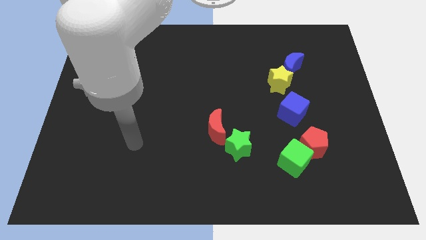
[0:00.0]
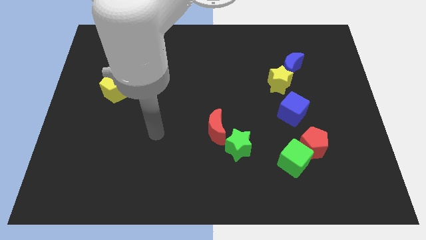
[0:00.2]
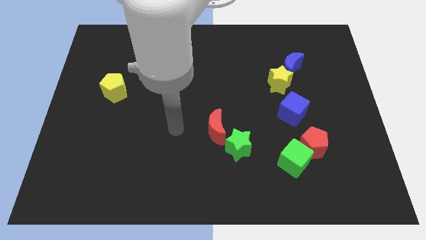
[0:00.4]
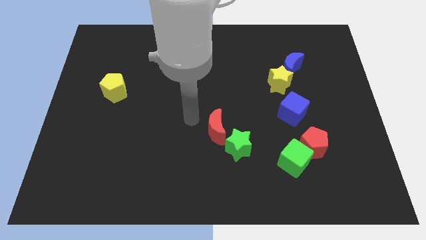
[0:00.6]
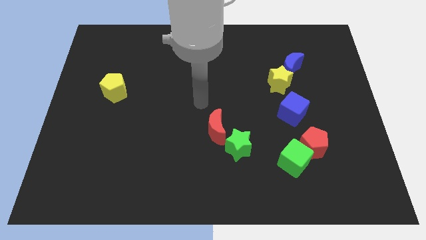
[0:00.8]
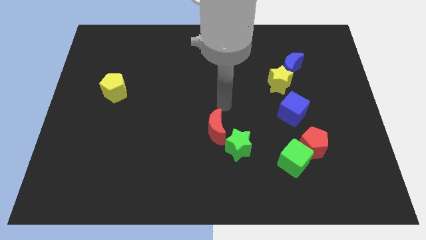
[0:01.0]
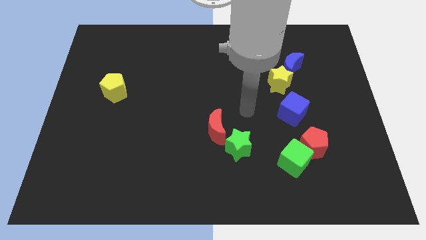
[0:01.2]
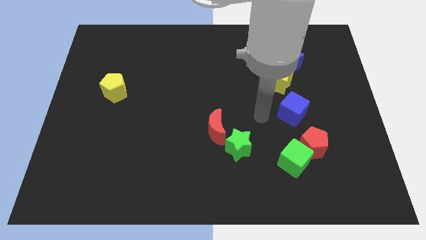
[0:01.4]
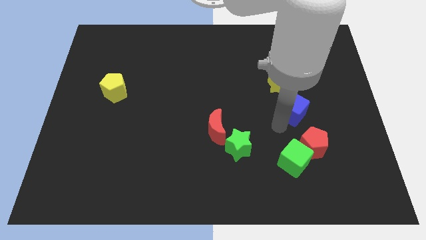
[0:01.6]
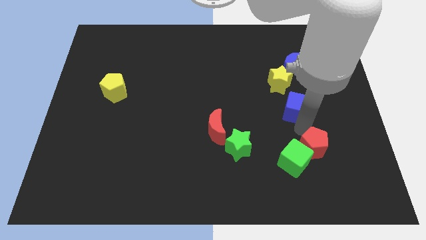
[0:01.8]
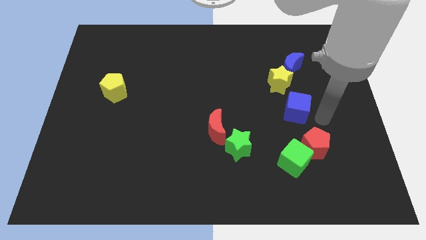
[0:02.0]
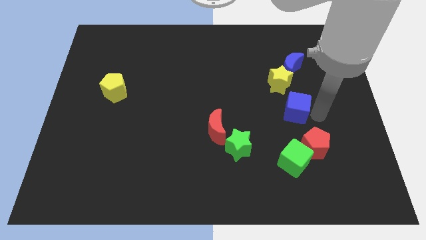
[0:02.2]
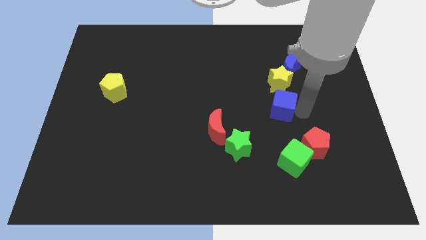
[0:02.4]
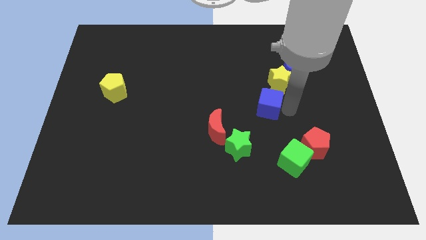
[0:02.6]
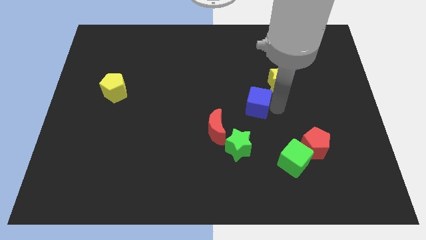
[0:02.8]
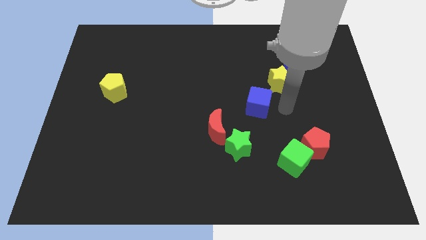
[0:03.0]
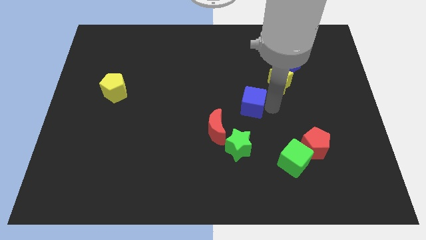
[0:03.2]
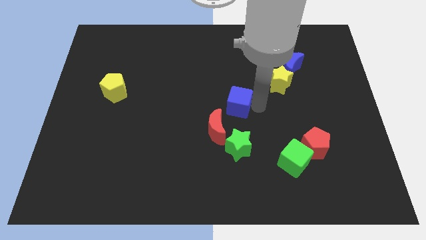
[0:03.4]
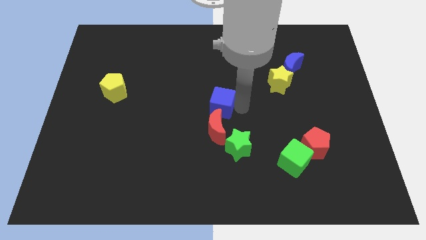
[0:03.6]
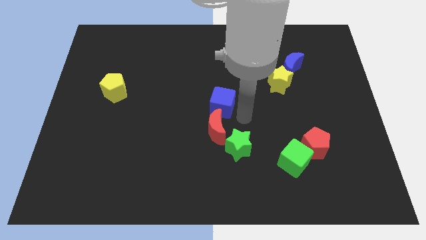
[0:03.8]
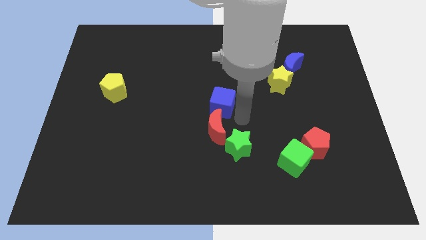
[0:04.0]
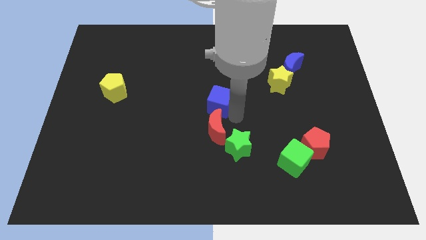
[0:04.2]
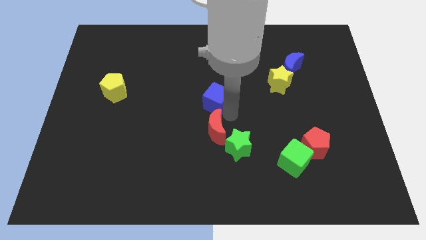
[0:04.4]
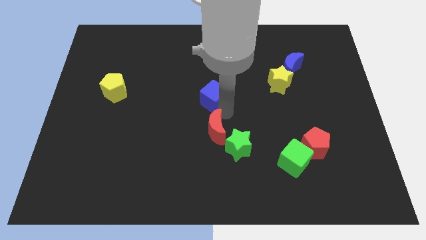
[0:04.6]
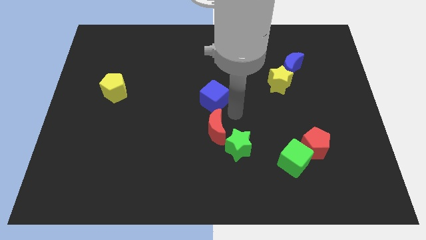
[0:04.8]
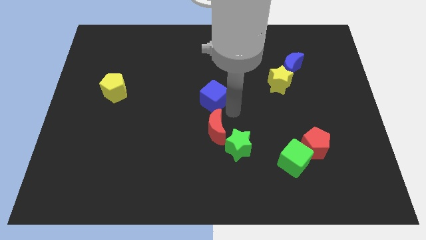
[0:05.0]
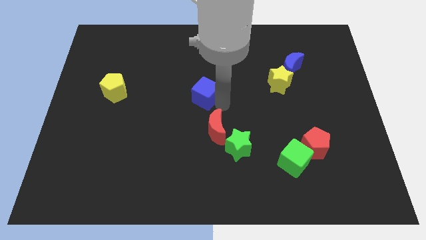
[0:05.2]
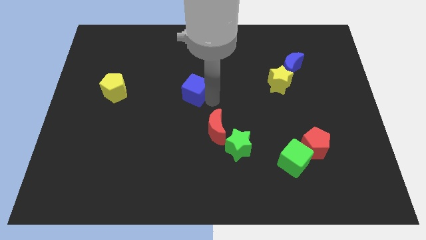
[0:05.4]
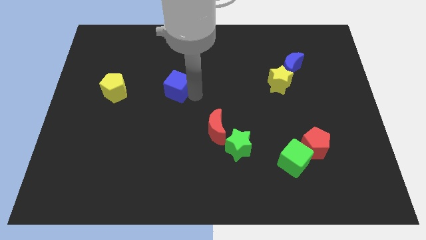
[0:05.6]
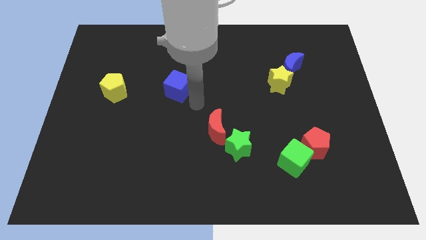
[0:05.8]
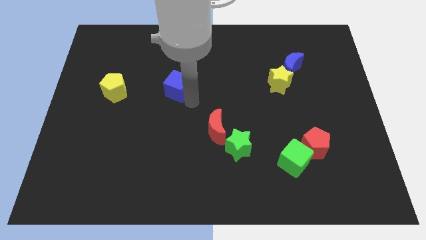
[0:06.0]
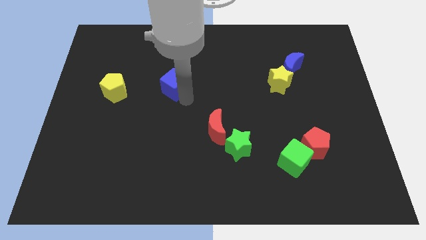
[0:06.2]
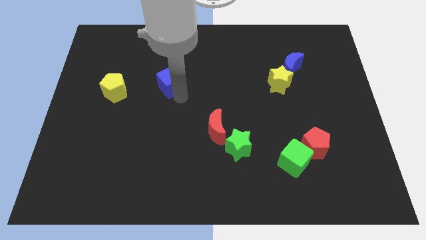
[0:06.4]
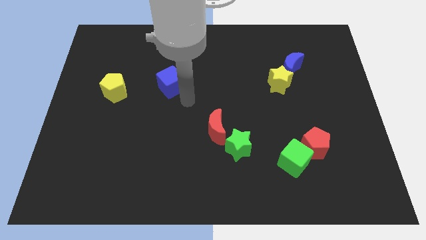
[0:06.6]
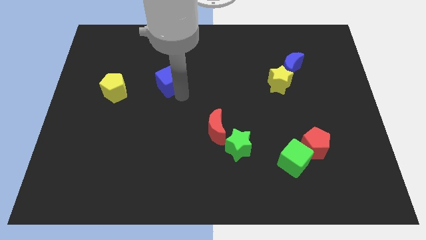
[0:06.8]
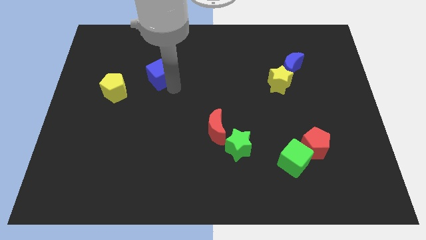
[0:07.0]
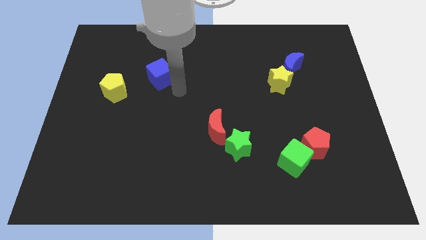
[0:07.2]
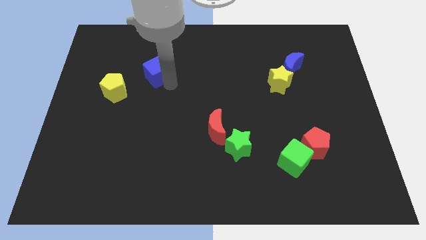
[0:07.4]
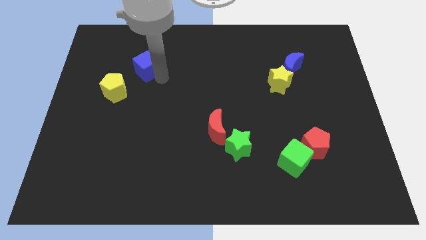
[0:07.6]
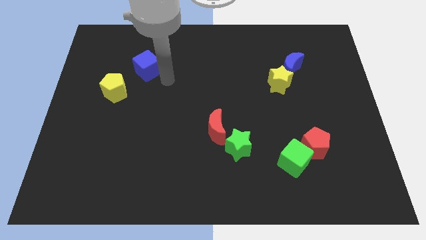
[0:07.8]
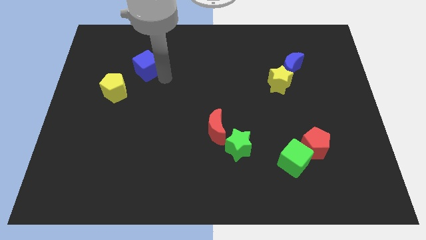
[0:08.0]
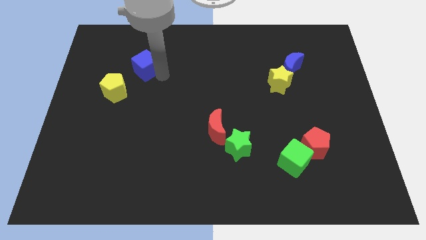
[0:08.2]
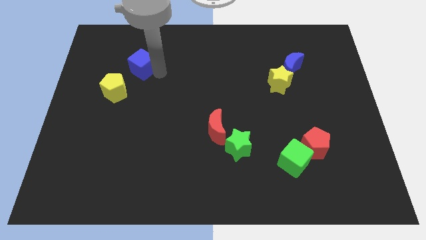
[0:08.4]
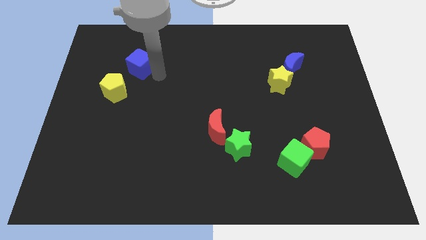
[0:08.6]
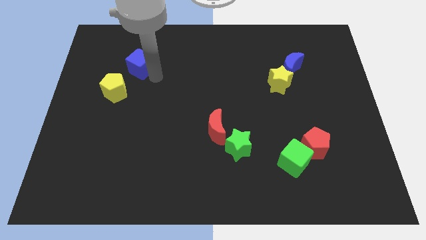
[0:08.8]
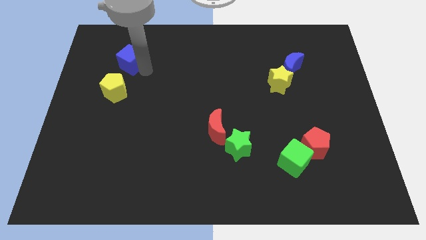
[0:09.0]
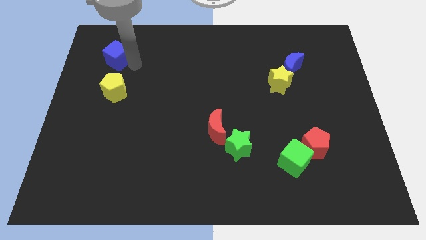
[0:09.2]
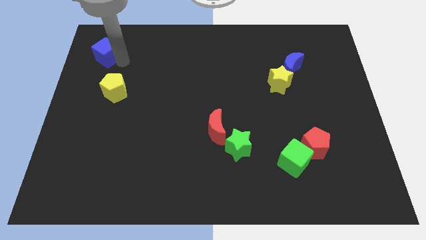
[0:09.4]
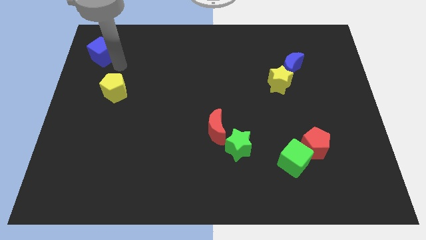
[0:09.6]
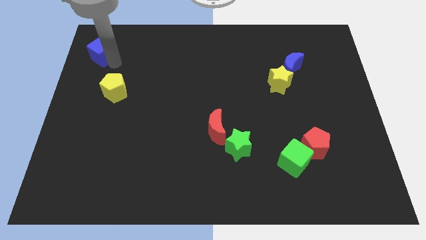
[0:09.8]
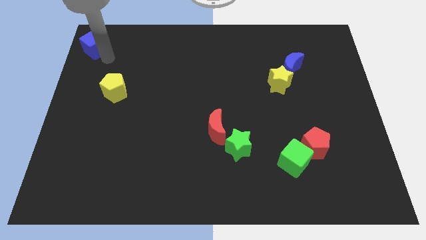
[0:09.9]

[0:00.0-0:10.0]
push the blue cube to the top left

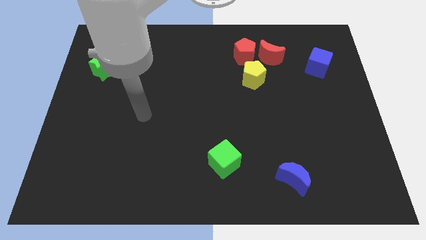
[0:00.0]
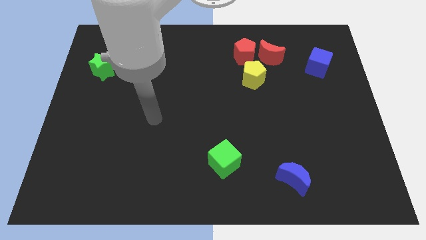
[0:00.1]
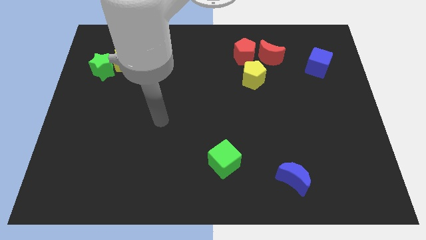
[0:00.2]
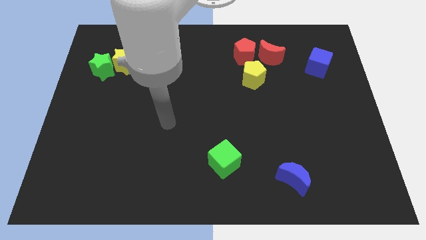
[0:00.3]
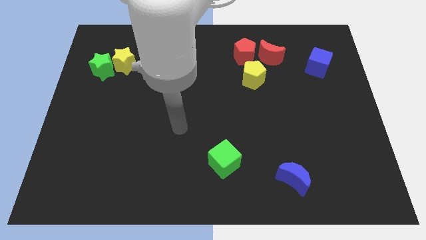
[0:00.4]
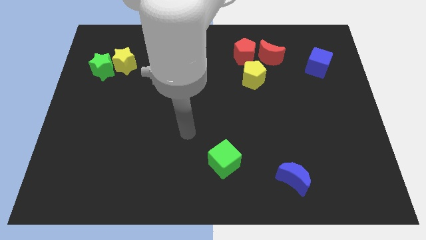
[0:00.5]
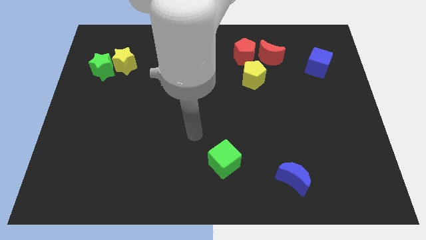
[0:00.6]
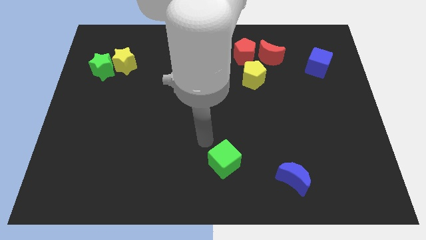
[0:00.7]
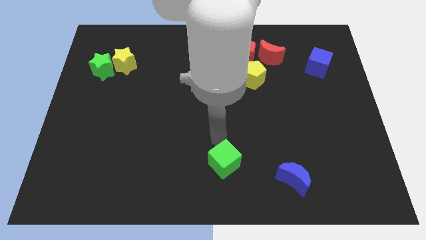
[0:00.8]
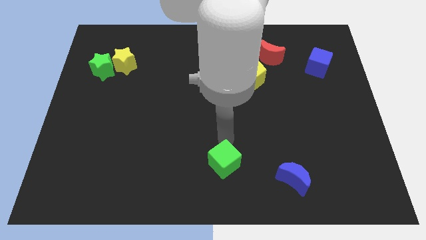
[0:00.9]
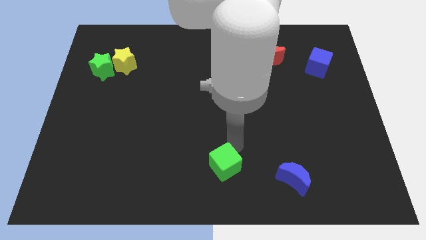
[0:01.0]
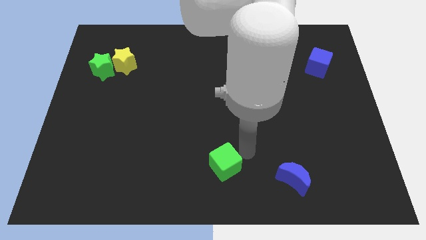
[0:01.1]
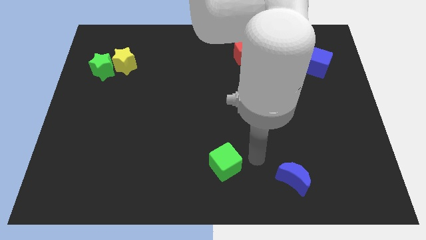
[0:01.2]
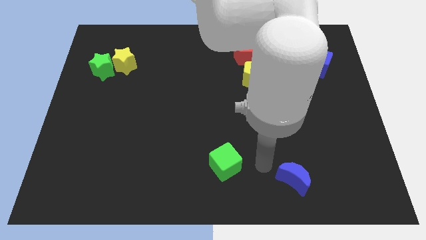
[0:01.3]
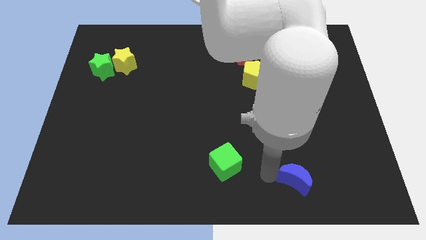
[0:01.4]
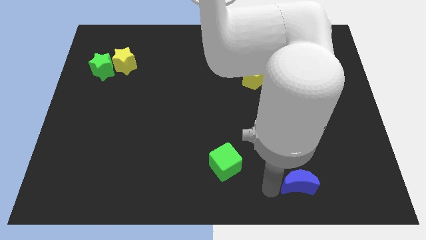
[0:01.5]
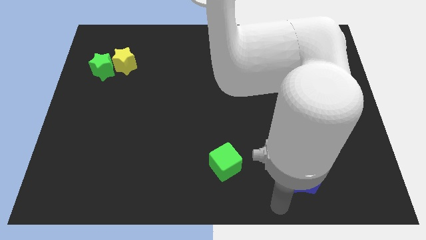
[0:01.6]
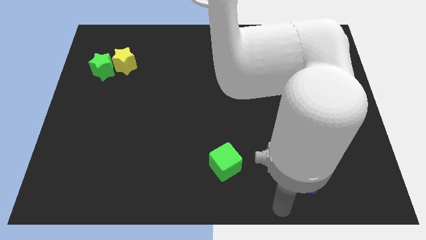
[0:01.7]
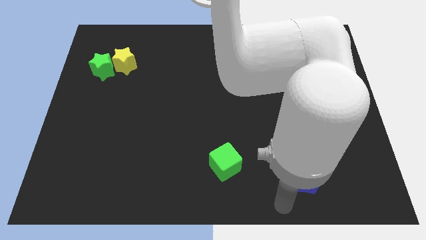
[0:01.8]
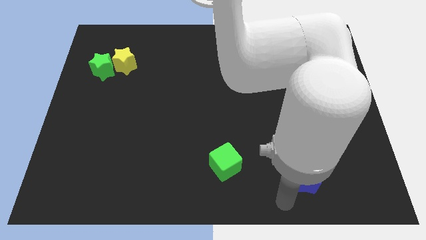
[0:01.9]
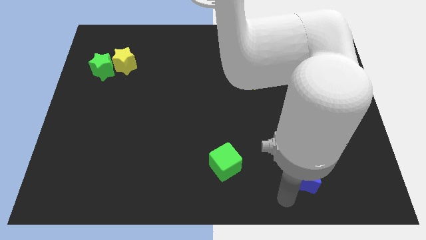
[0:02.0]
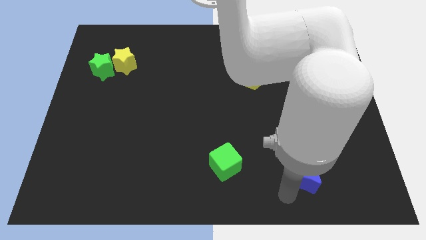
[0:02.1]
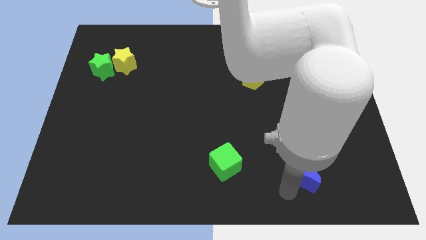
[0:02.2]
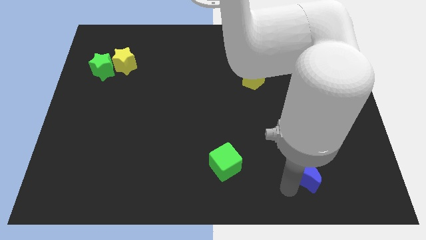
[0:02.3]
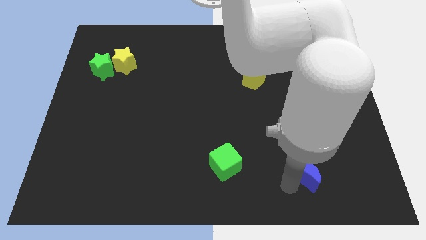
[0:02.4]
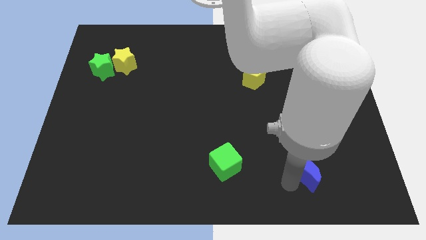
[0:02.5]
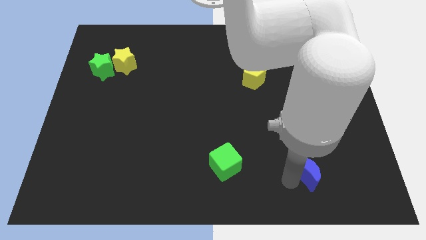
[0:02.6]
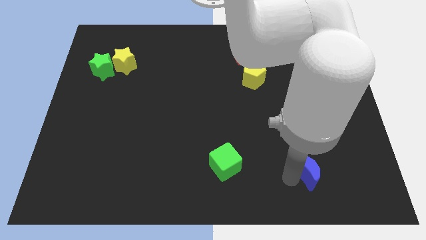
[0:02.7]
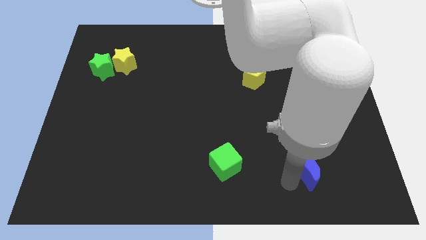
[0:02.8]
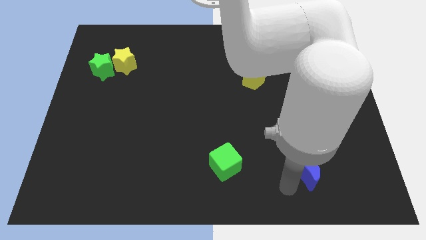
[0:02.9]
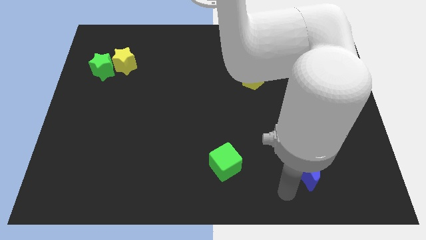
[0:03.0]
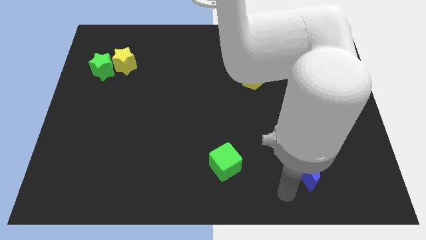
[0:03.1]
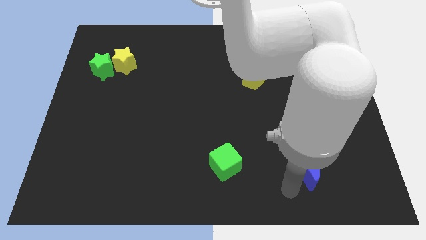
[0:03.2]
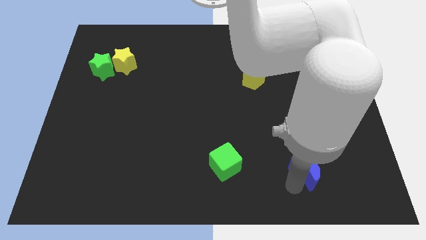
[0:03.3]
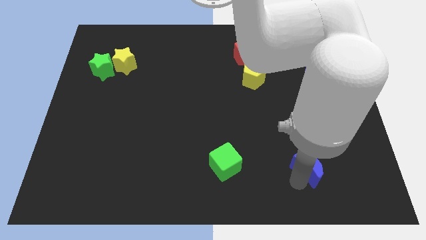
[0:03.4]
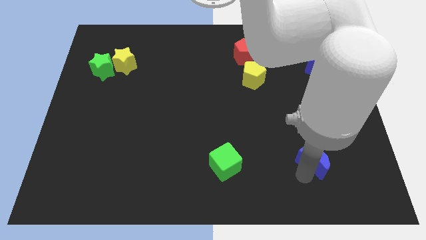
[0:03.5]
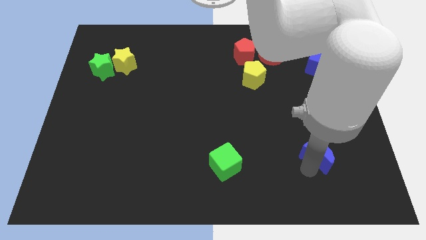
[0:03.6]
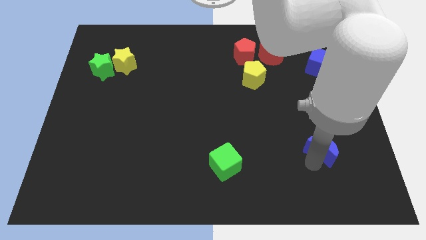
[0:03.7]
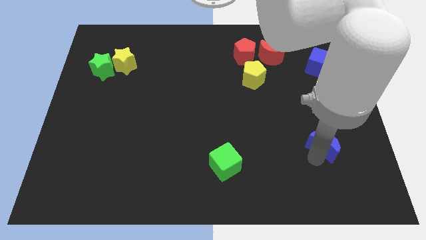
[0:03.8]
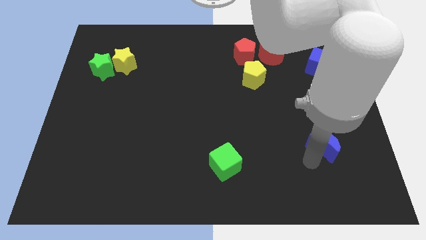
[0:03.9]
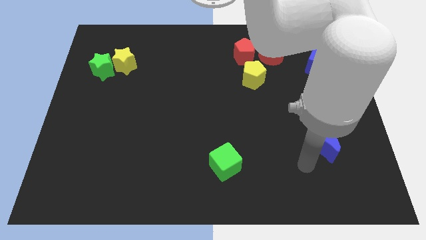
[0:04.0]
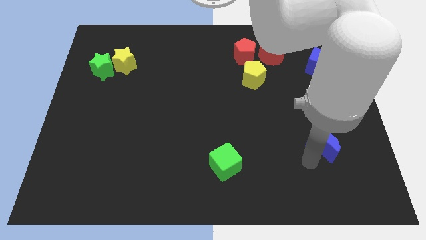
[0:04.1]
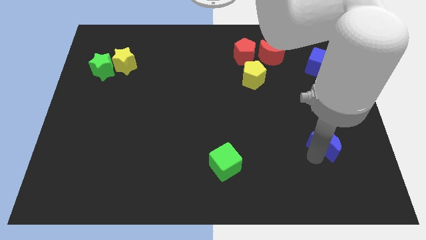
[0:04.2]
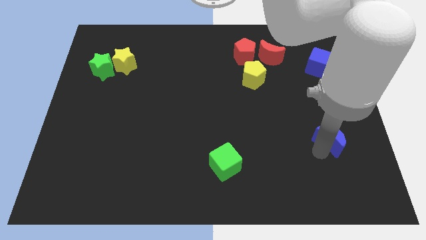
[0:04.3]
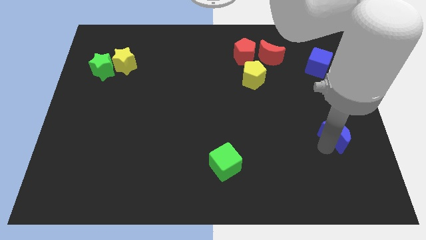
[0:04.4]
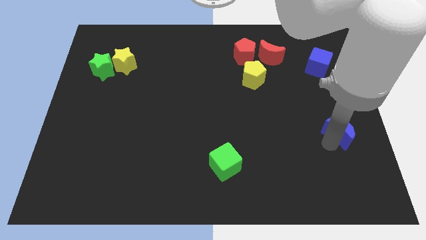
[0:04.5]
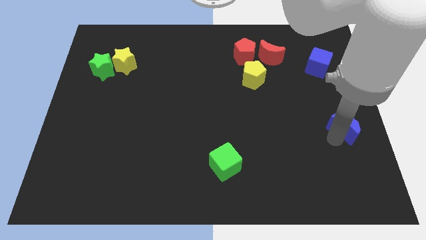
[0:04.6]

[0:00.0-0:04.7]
put the blue moon to the right side
